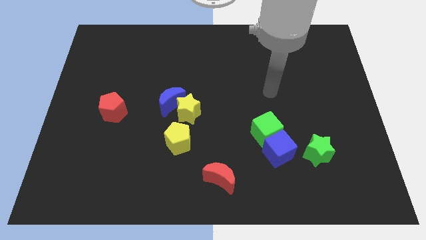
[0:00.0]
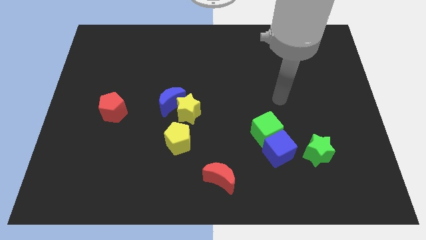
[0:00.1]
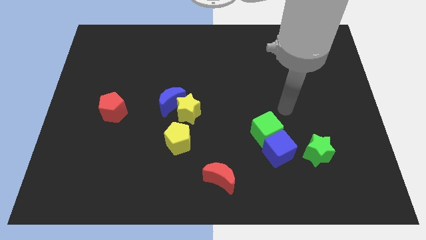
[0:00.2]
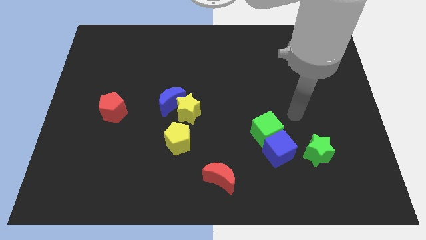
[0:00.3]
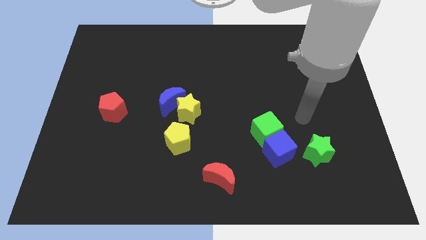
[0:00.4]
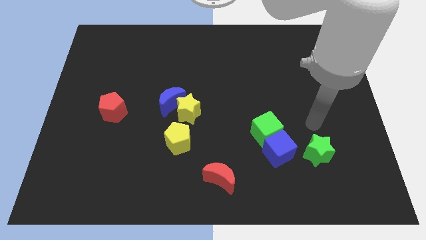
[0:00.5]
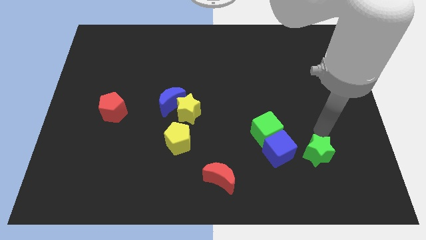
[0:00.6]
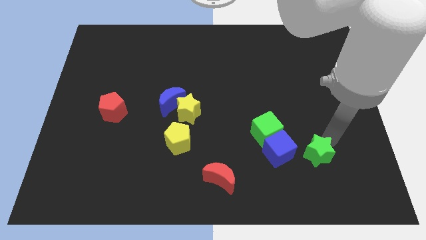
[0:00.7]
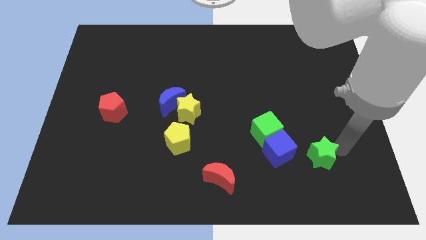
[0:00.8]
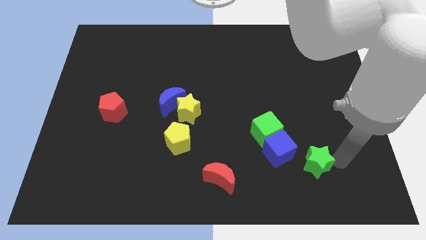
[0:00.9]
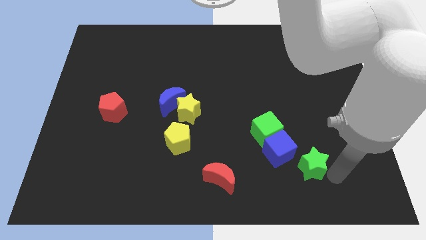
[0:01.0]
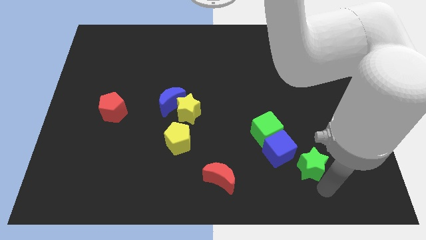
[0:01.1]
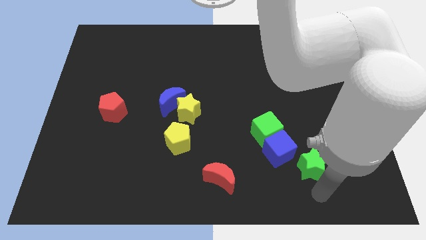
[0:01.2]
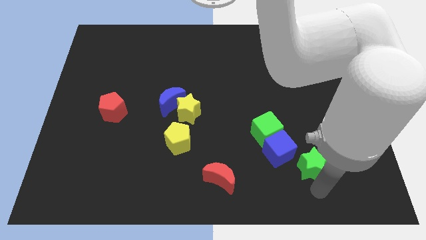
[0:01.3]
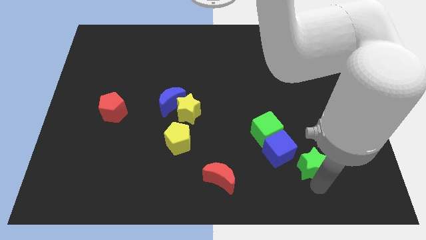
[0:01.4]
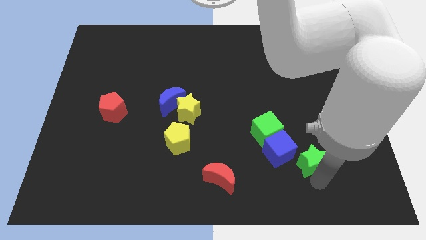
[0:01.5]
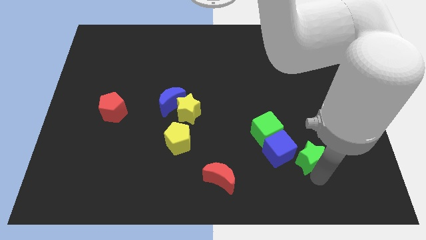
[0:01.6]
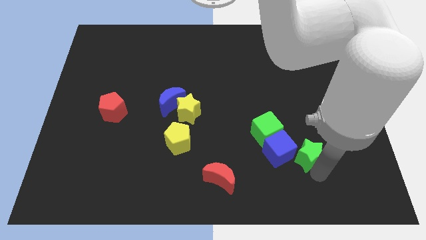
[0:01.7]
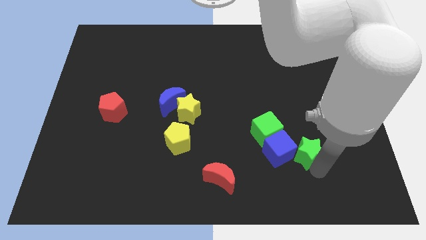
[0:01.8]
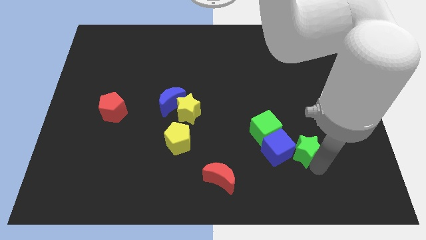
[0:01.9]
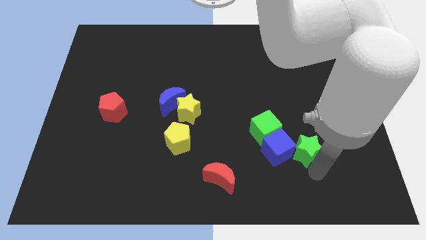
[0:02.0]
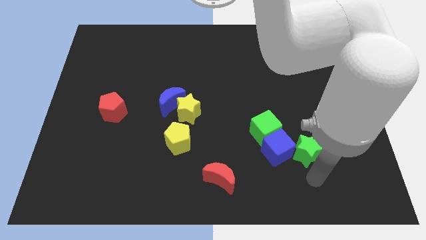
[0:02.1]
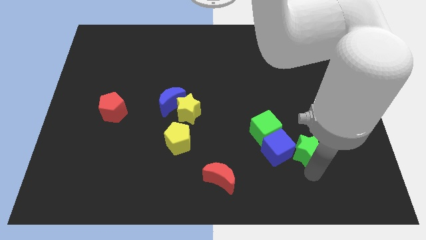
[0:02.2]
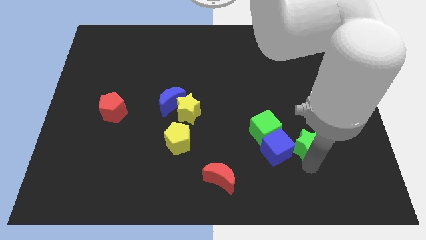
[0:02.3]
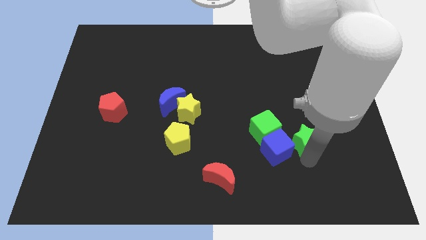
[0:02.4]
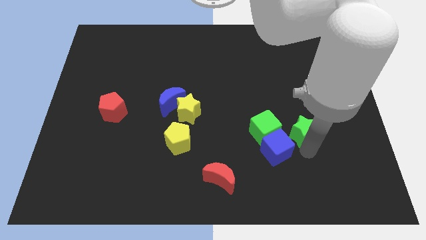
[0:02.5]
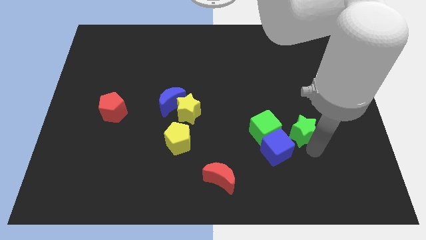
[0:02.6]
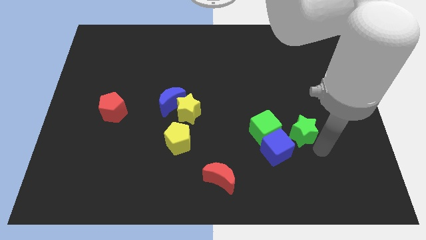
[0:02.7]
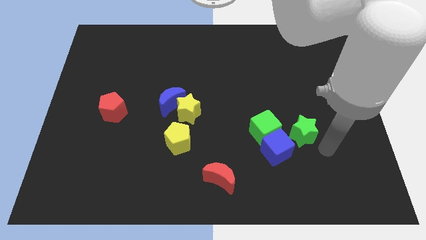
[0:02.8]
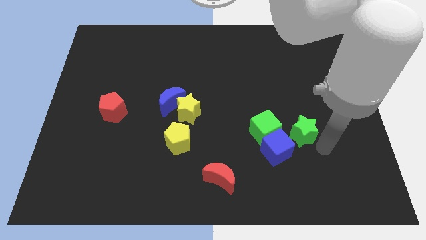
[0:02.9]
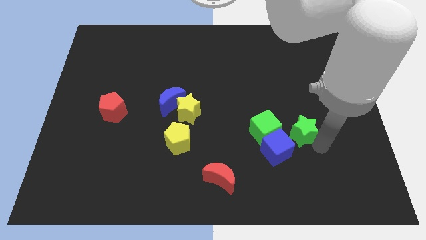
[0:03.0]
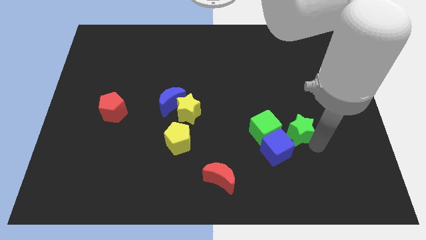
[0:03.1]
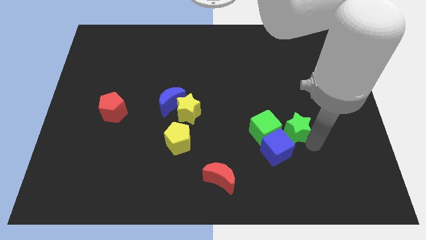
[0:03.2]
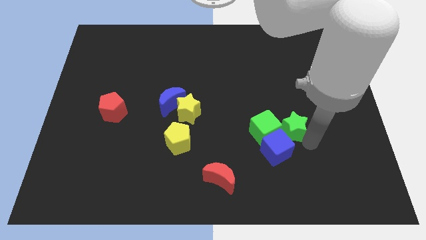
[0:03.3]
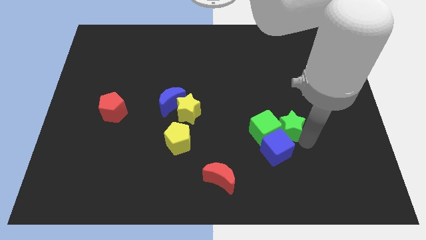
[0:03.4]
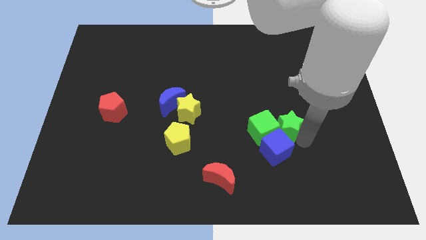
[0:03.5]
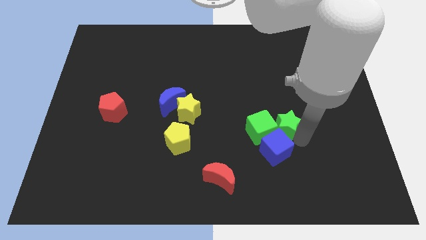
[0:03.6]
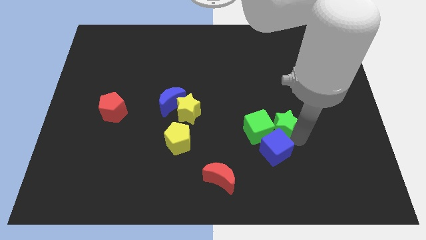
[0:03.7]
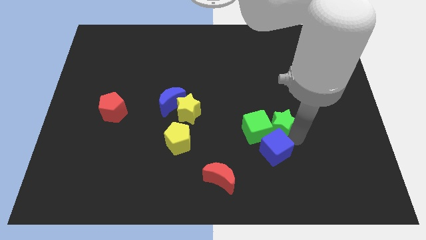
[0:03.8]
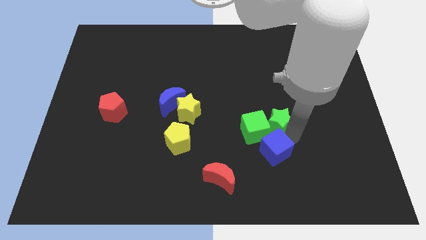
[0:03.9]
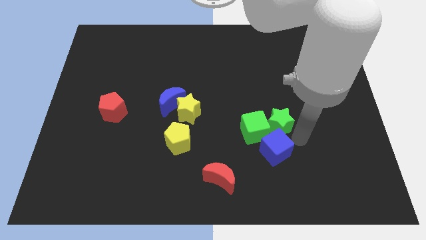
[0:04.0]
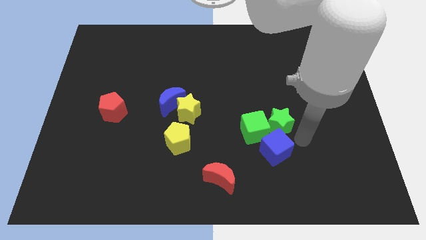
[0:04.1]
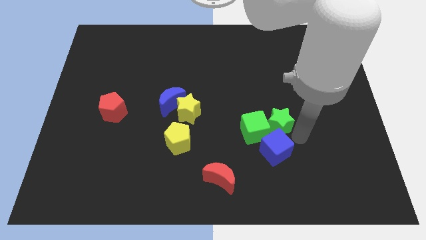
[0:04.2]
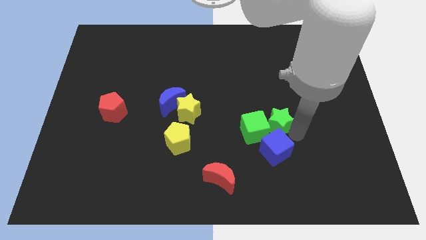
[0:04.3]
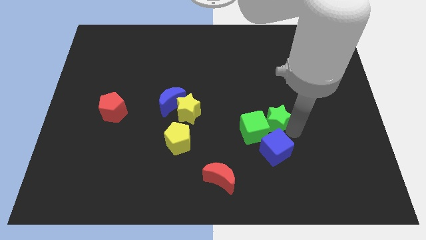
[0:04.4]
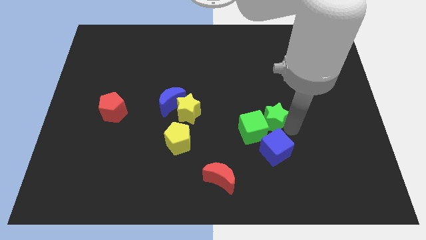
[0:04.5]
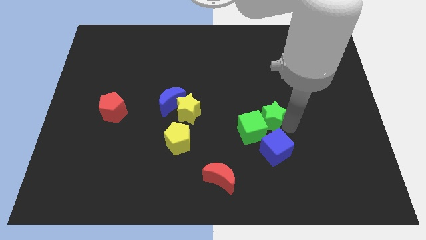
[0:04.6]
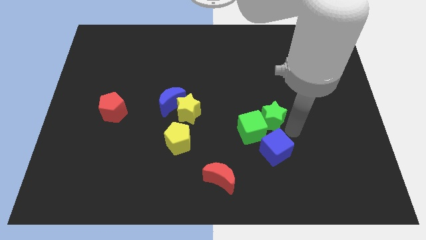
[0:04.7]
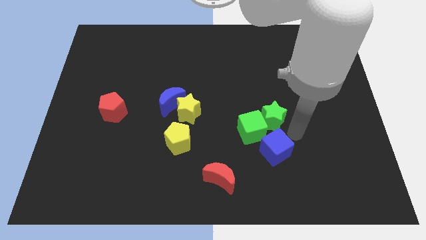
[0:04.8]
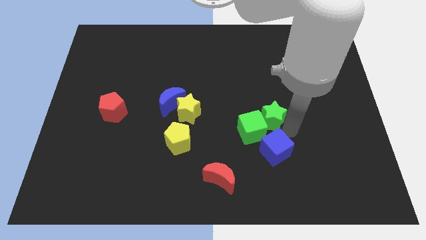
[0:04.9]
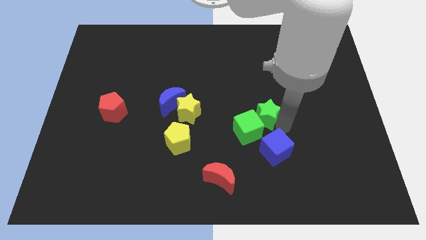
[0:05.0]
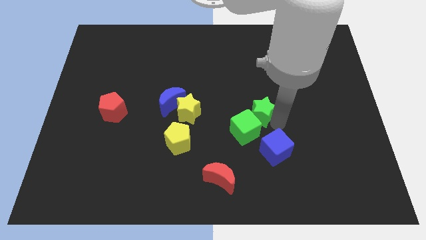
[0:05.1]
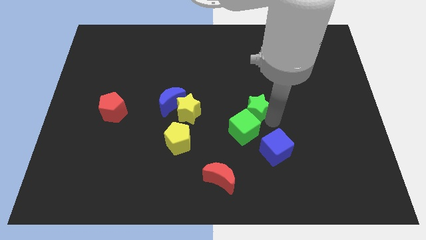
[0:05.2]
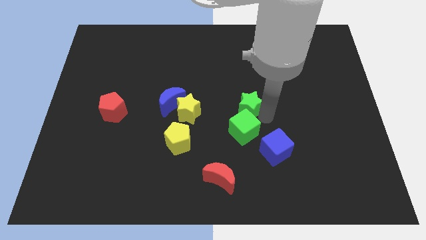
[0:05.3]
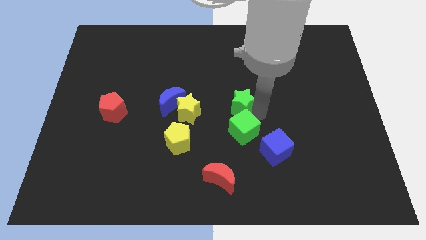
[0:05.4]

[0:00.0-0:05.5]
move the green star upwards and to the left

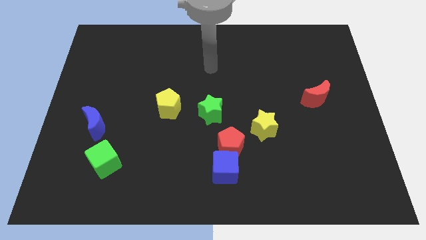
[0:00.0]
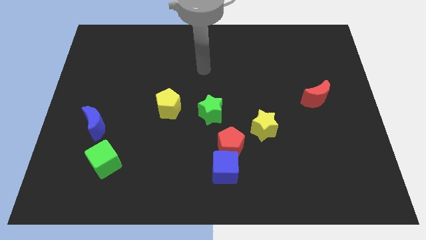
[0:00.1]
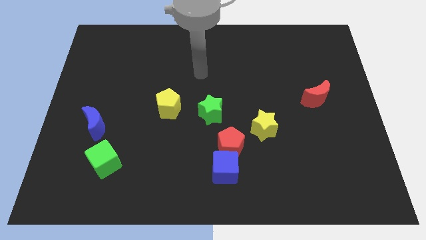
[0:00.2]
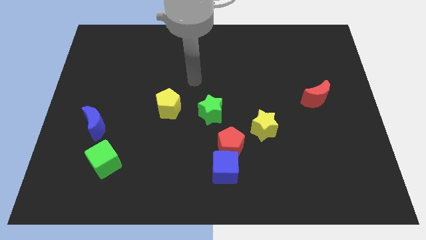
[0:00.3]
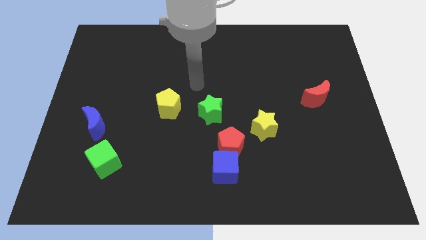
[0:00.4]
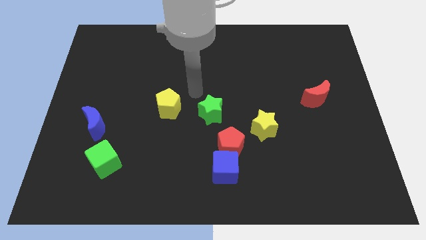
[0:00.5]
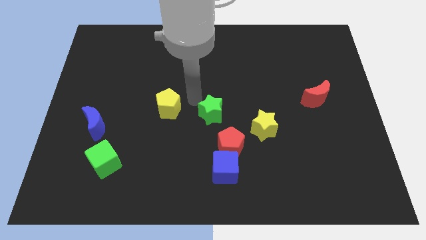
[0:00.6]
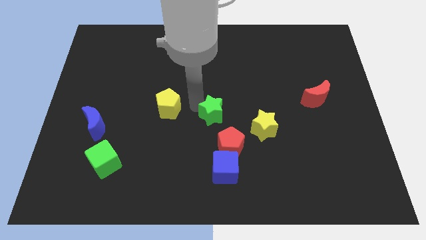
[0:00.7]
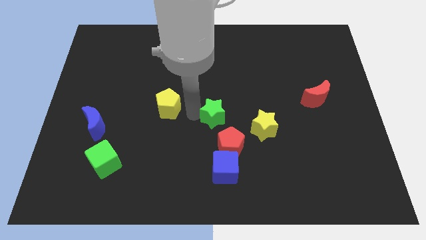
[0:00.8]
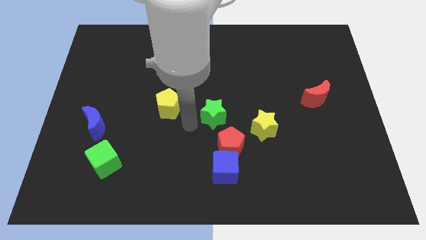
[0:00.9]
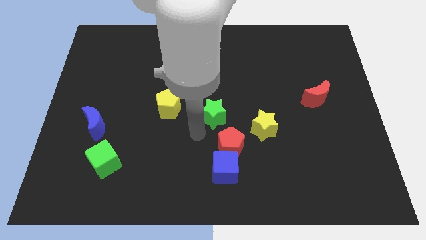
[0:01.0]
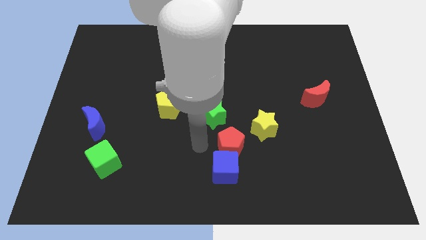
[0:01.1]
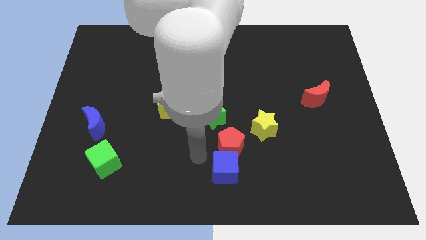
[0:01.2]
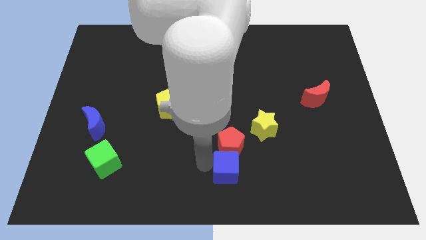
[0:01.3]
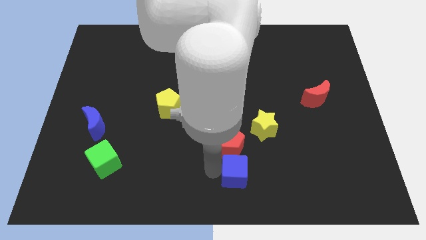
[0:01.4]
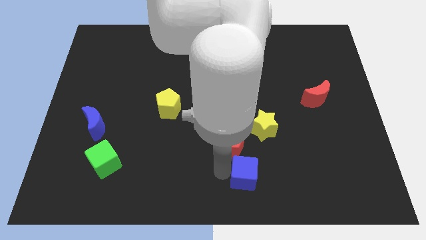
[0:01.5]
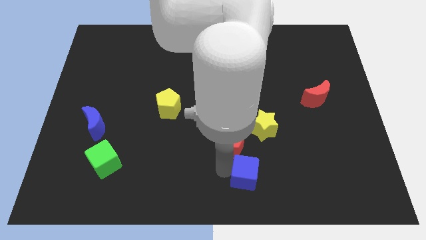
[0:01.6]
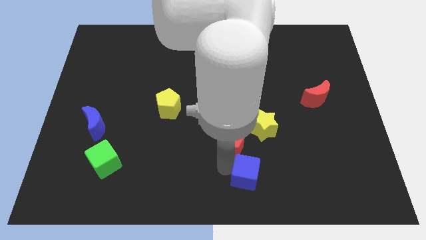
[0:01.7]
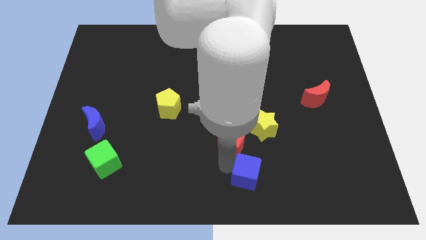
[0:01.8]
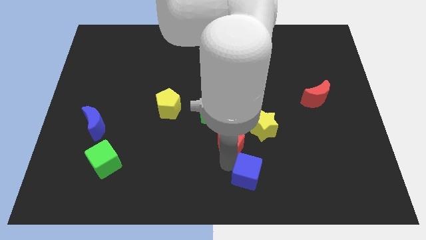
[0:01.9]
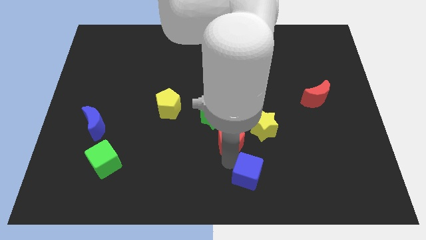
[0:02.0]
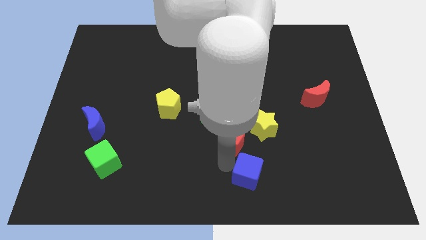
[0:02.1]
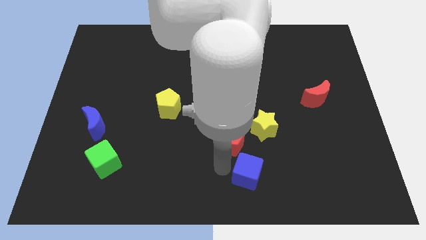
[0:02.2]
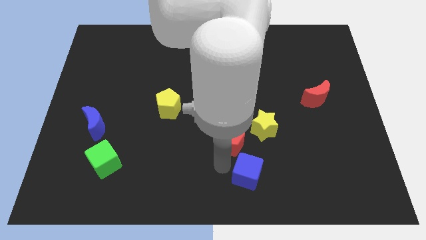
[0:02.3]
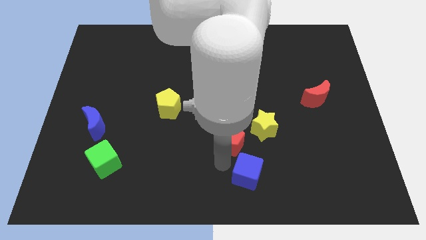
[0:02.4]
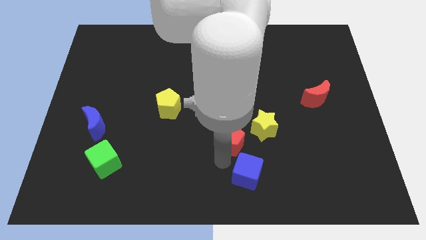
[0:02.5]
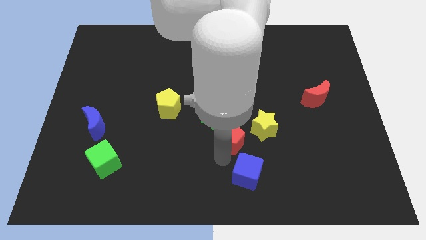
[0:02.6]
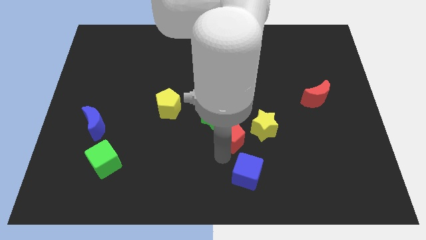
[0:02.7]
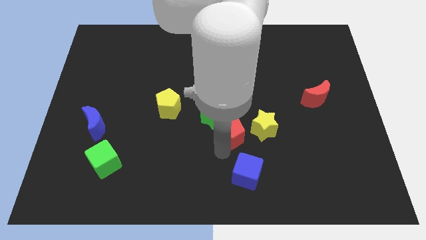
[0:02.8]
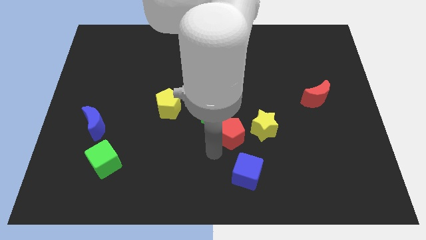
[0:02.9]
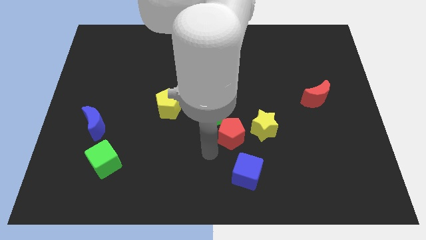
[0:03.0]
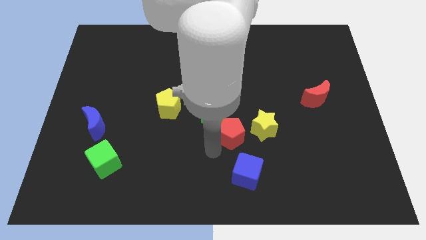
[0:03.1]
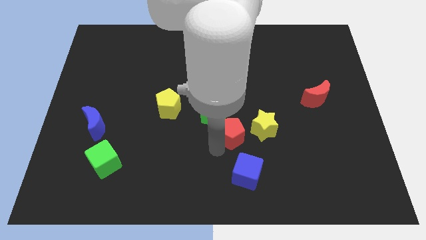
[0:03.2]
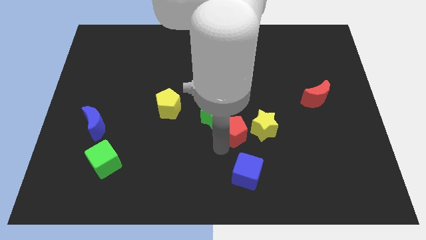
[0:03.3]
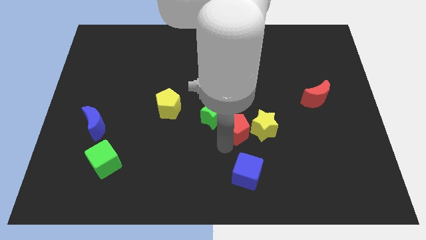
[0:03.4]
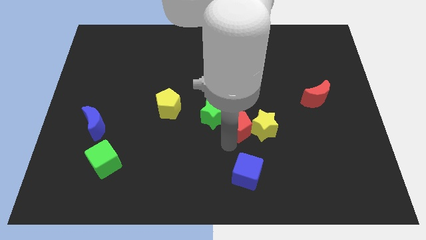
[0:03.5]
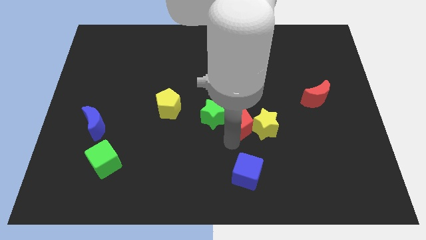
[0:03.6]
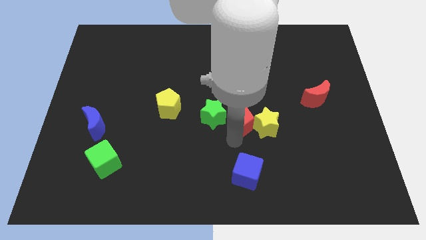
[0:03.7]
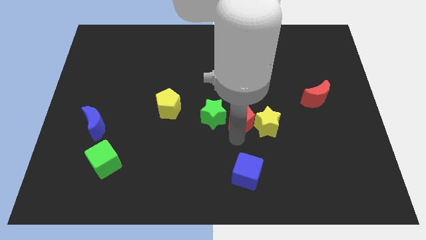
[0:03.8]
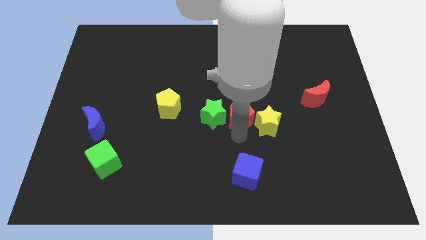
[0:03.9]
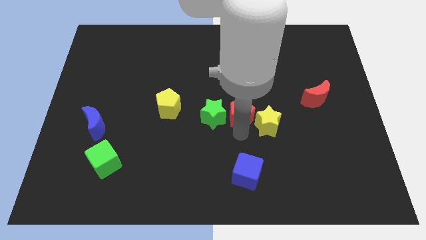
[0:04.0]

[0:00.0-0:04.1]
slide the red pentagon upwards and to the right diagonally a little
